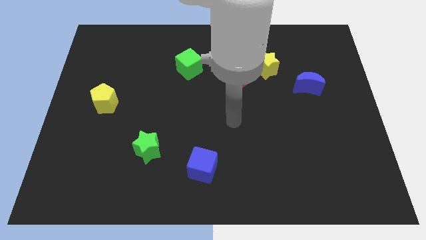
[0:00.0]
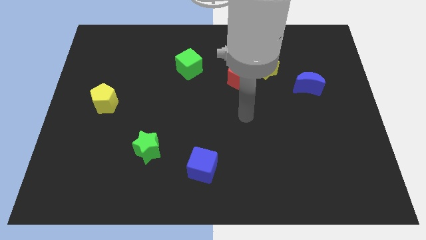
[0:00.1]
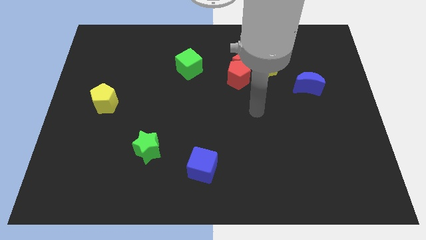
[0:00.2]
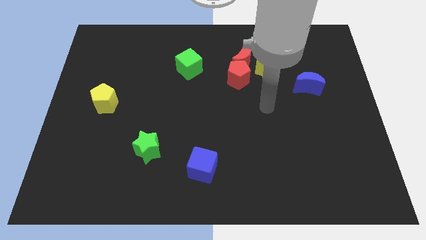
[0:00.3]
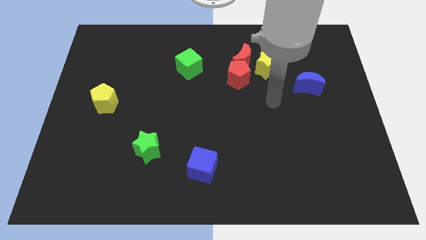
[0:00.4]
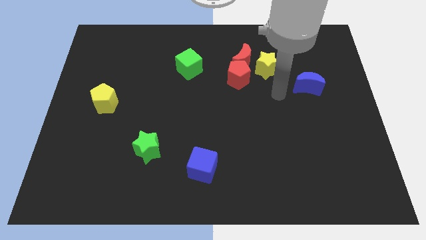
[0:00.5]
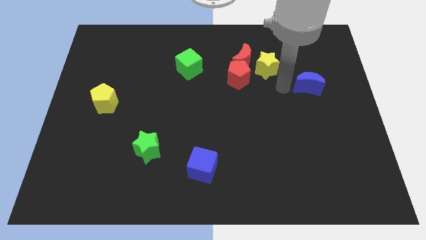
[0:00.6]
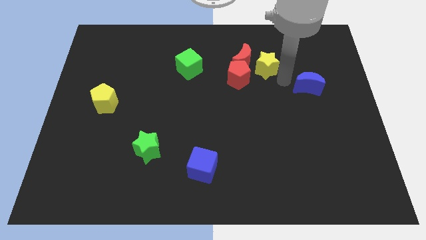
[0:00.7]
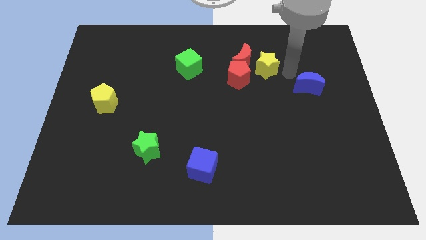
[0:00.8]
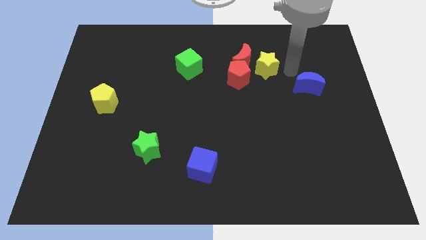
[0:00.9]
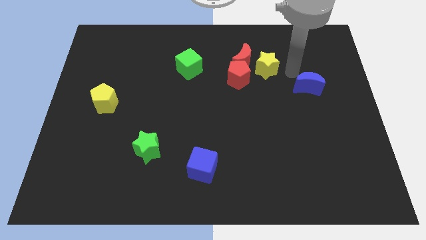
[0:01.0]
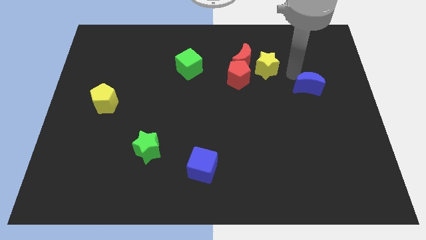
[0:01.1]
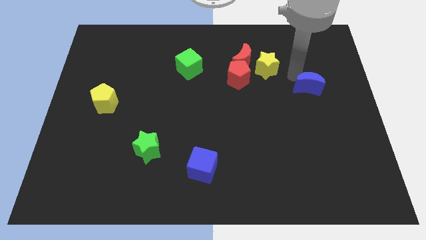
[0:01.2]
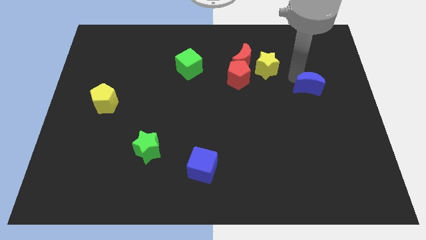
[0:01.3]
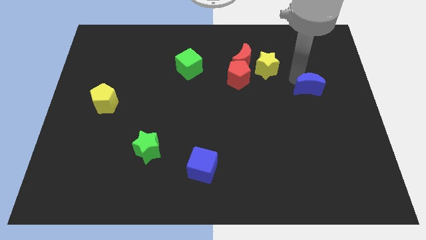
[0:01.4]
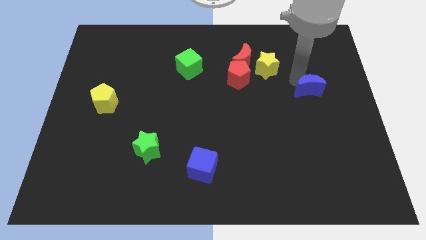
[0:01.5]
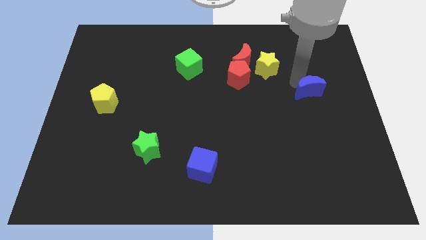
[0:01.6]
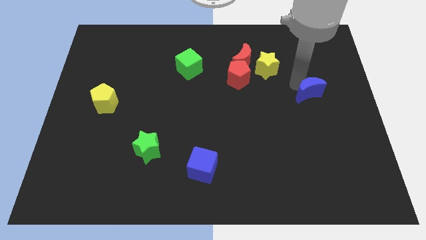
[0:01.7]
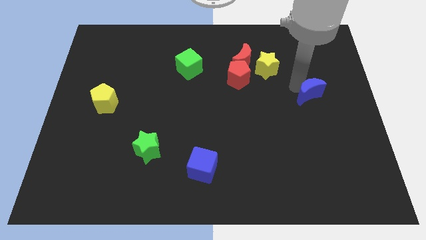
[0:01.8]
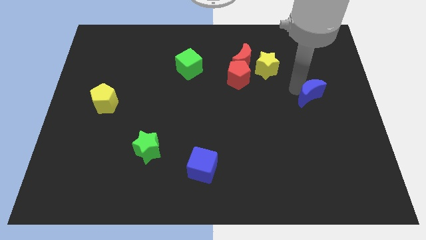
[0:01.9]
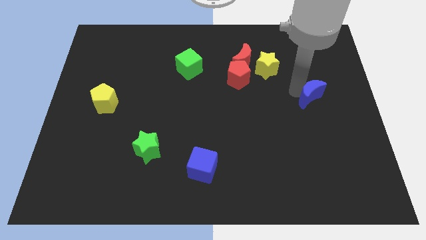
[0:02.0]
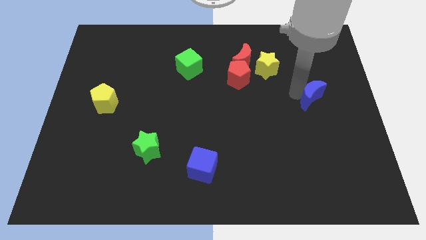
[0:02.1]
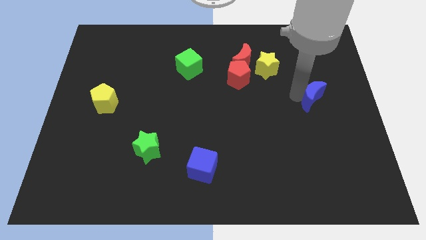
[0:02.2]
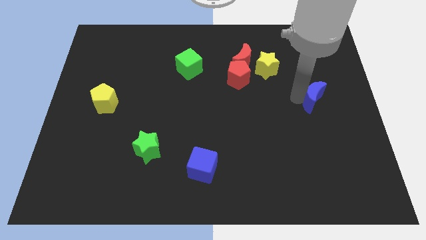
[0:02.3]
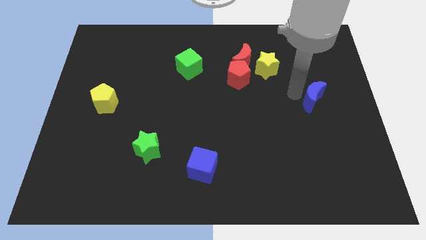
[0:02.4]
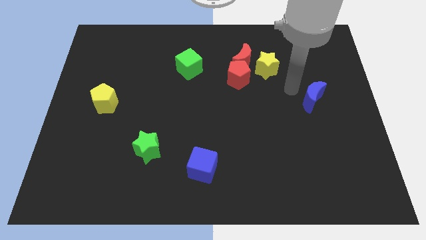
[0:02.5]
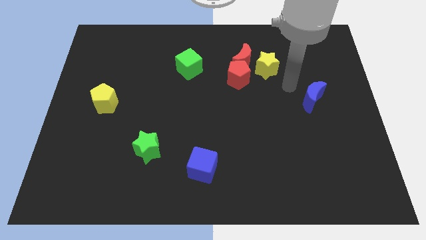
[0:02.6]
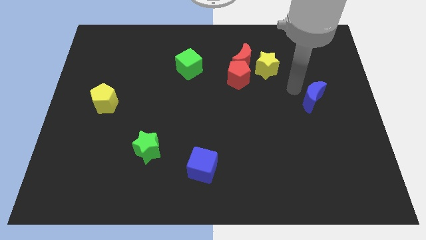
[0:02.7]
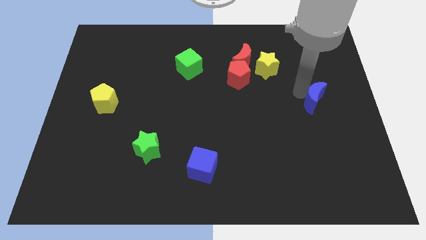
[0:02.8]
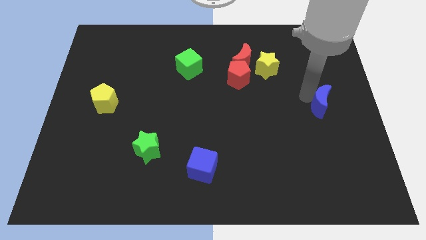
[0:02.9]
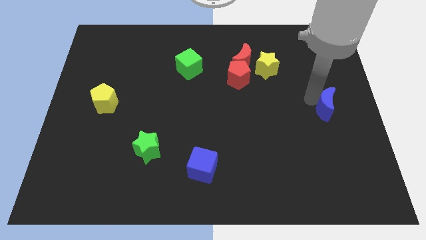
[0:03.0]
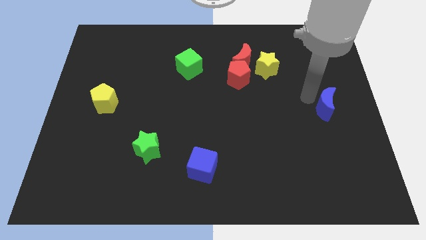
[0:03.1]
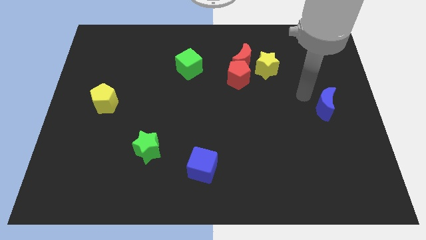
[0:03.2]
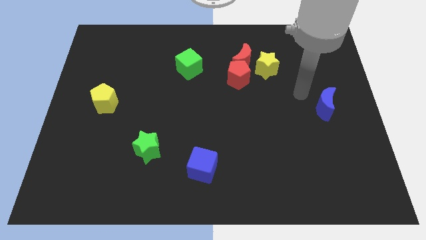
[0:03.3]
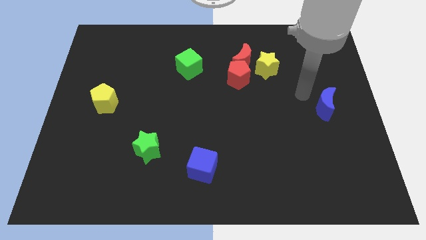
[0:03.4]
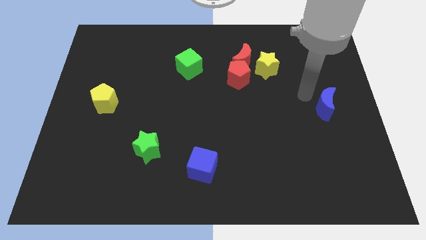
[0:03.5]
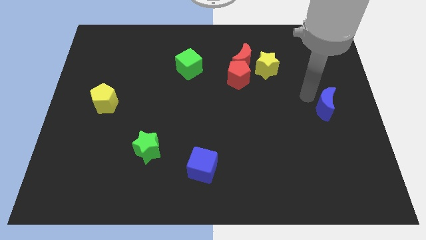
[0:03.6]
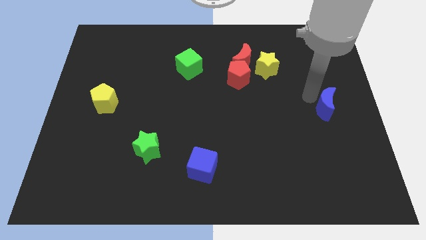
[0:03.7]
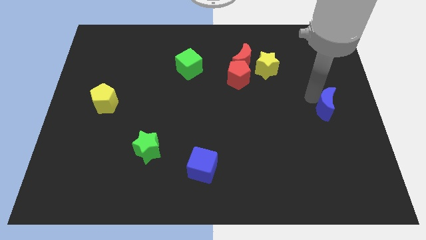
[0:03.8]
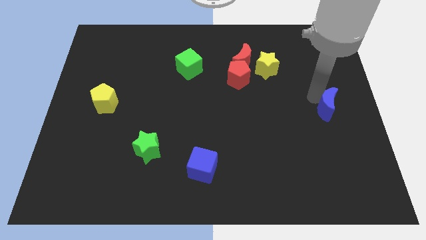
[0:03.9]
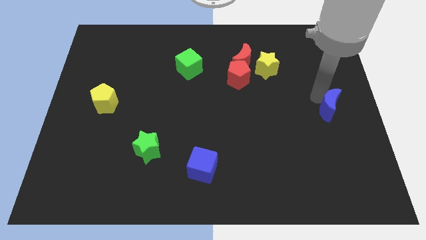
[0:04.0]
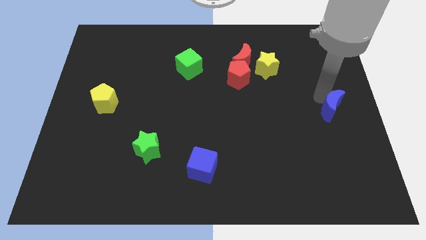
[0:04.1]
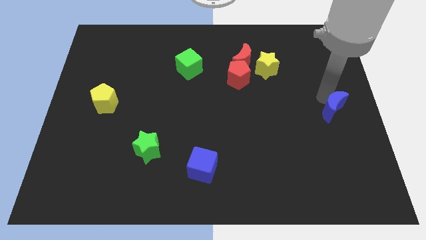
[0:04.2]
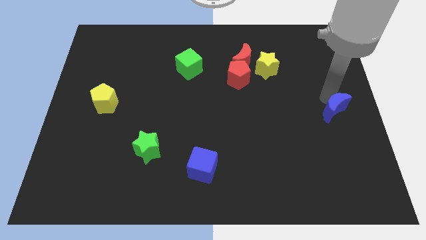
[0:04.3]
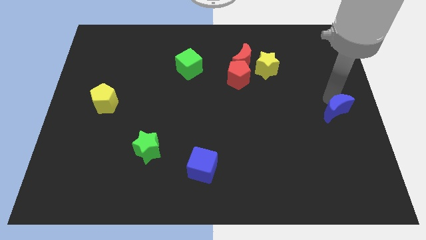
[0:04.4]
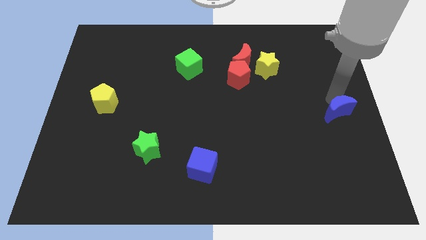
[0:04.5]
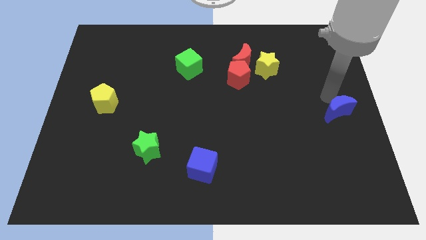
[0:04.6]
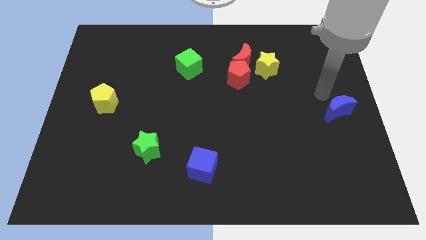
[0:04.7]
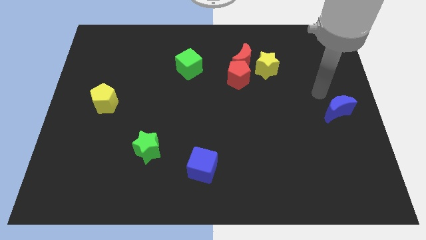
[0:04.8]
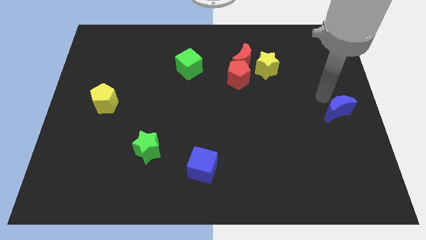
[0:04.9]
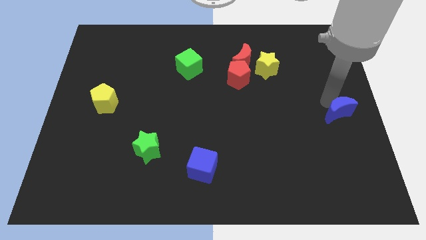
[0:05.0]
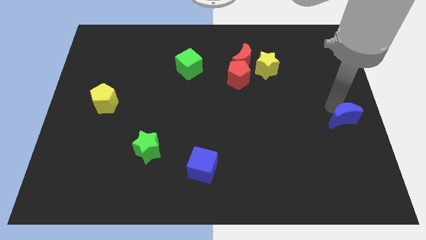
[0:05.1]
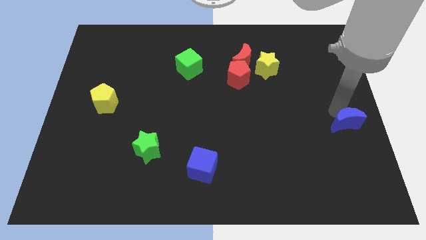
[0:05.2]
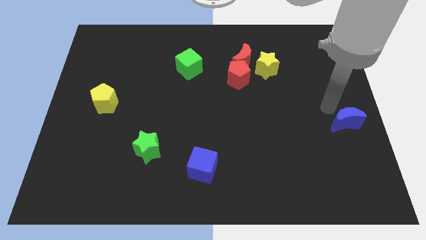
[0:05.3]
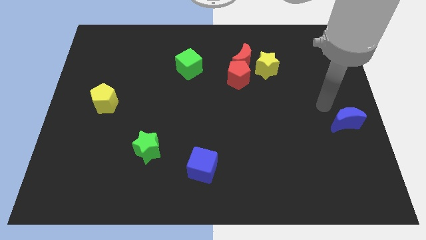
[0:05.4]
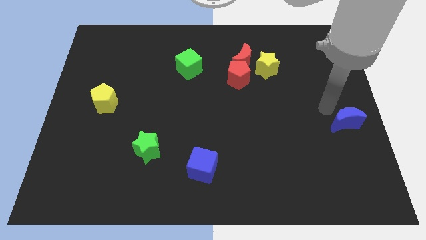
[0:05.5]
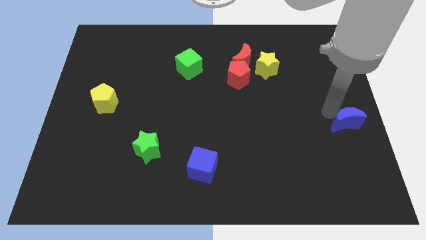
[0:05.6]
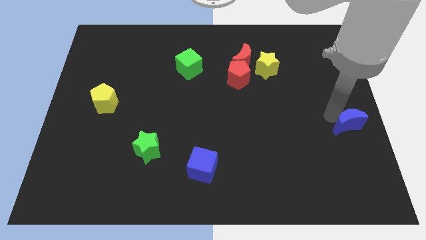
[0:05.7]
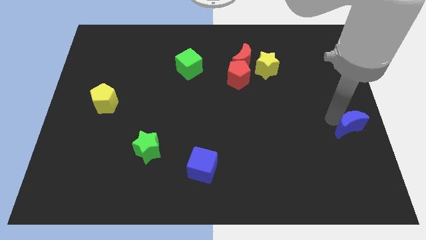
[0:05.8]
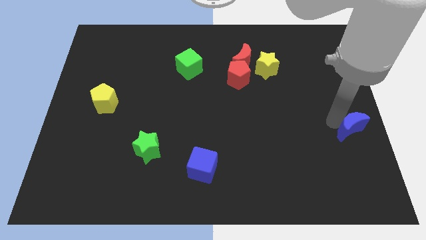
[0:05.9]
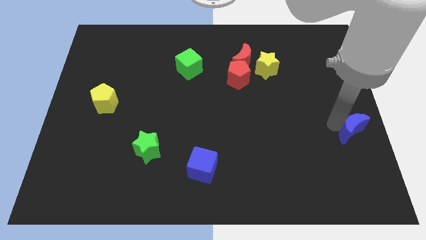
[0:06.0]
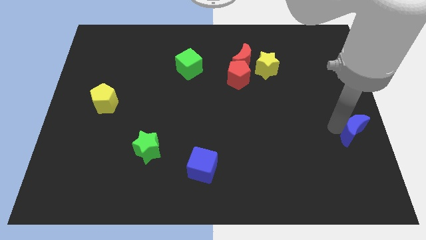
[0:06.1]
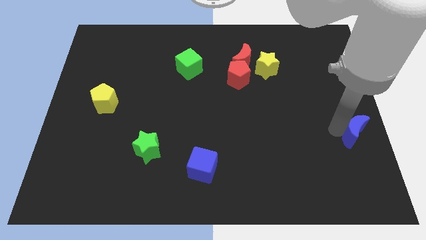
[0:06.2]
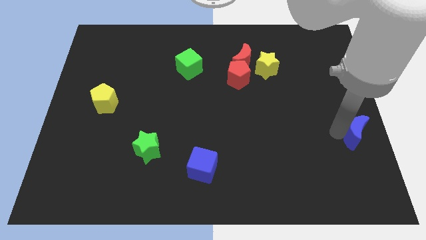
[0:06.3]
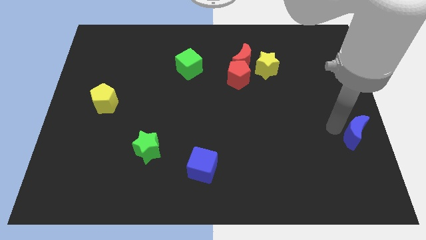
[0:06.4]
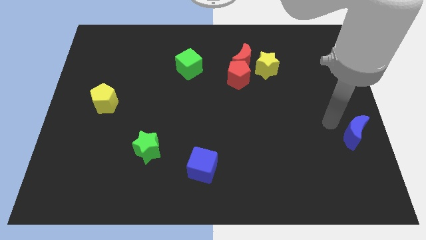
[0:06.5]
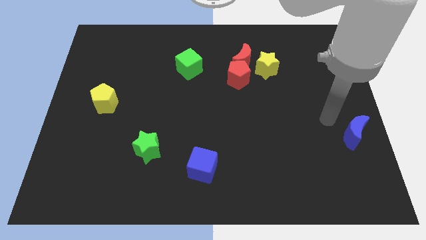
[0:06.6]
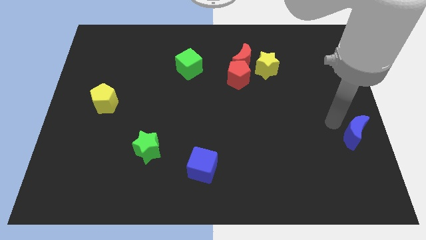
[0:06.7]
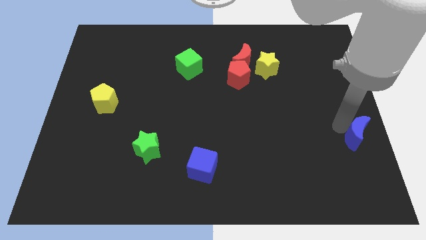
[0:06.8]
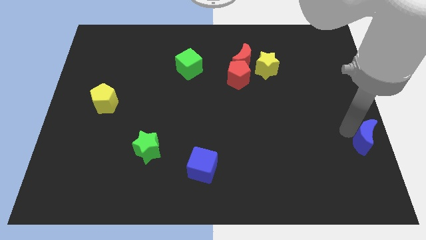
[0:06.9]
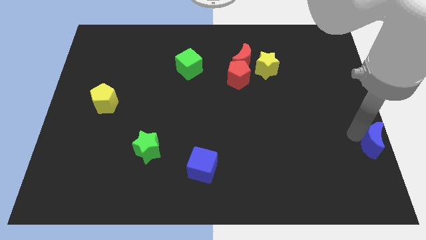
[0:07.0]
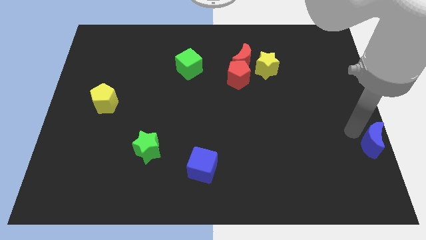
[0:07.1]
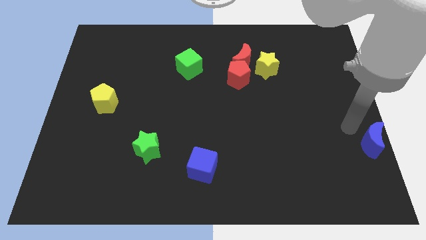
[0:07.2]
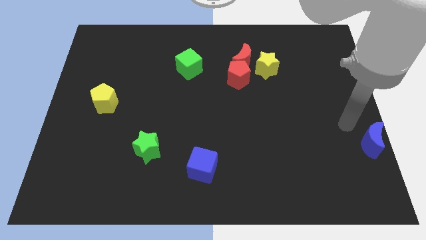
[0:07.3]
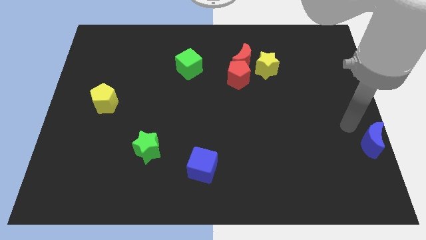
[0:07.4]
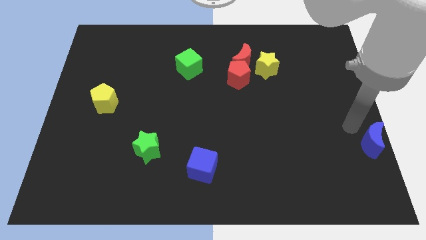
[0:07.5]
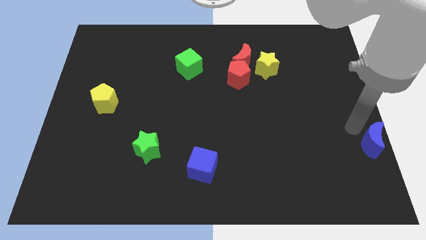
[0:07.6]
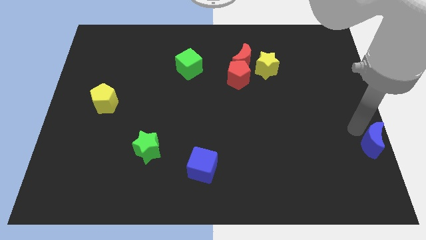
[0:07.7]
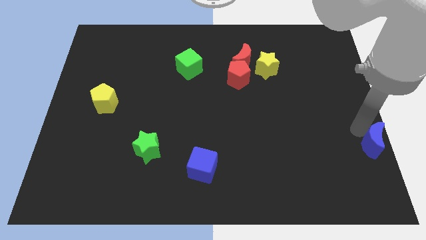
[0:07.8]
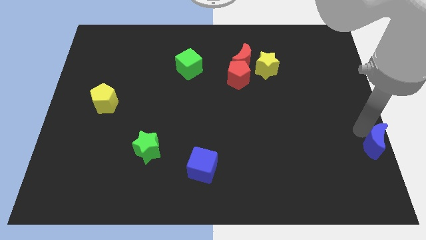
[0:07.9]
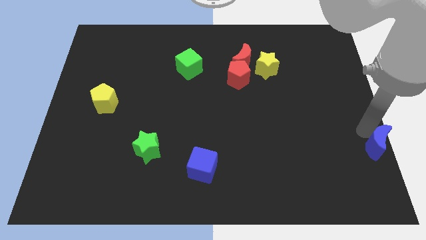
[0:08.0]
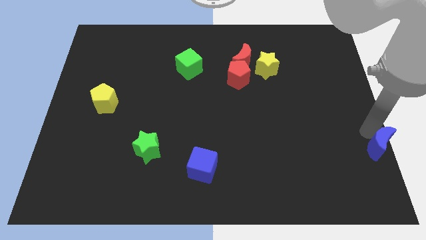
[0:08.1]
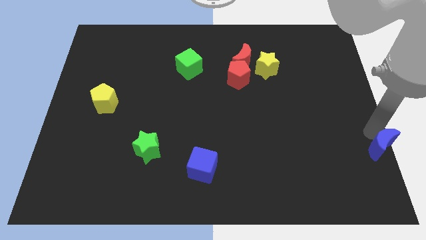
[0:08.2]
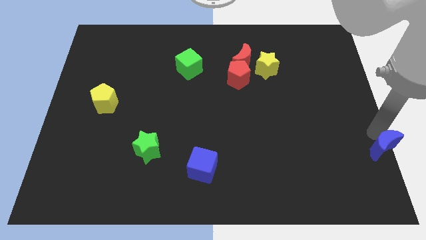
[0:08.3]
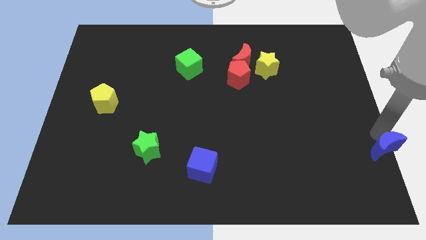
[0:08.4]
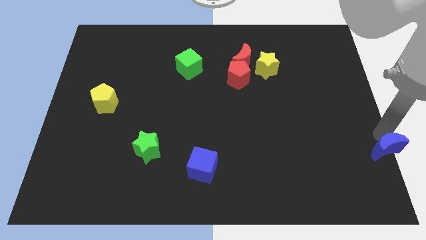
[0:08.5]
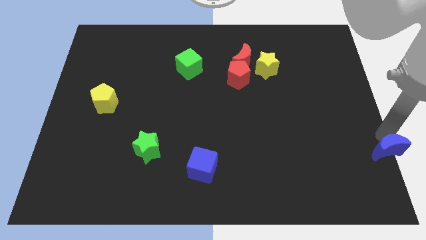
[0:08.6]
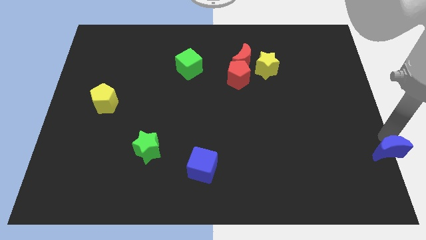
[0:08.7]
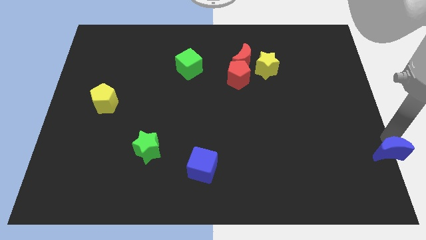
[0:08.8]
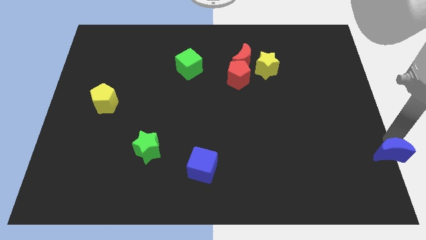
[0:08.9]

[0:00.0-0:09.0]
slide the blue moon to the lower right corner
